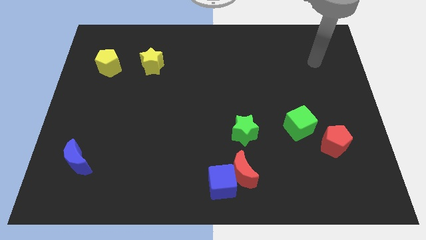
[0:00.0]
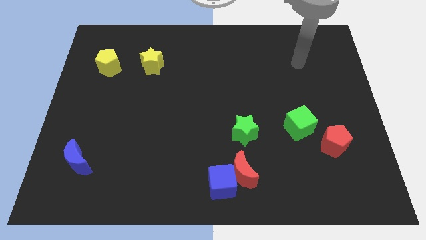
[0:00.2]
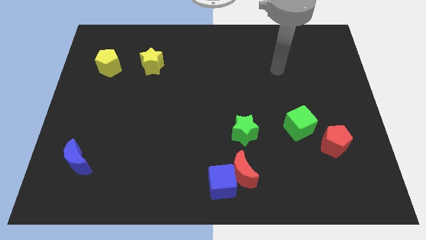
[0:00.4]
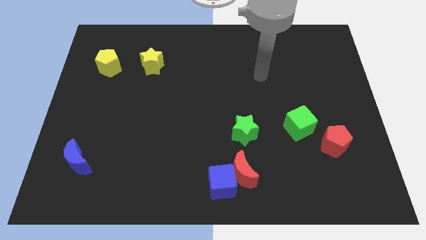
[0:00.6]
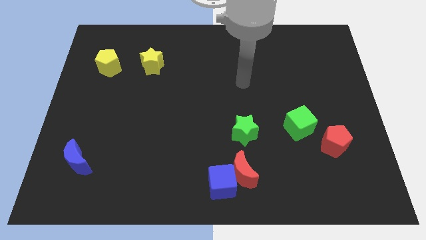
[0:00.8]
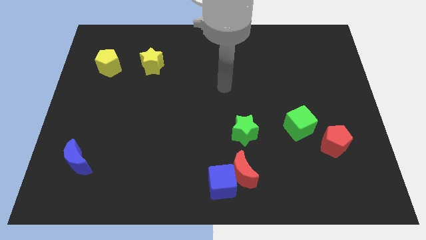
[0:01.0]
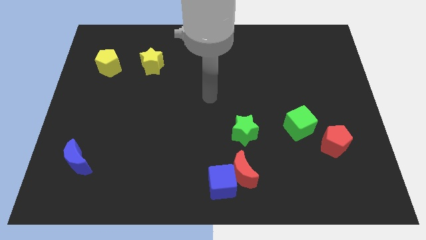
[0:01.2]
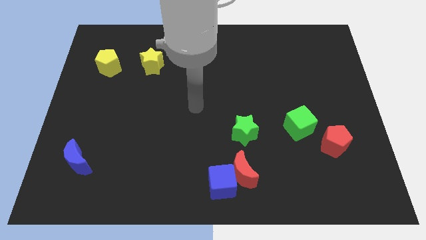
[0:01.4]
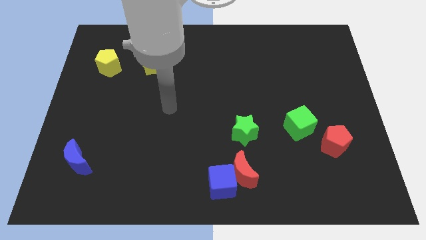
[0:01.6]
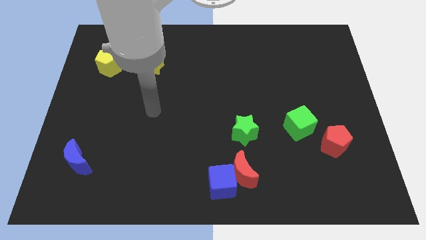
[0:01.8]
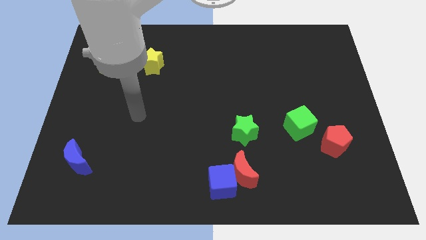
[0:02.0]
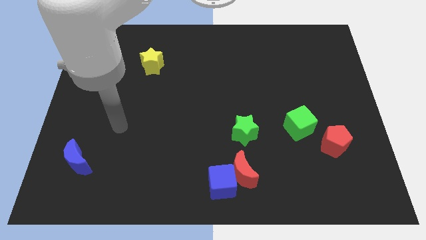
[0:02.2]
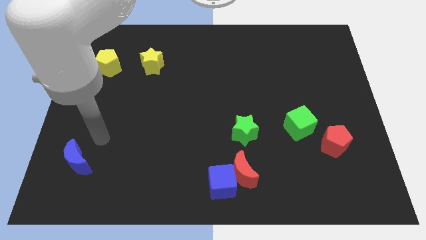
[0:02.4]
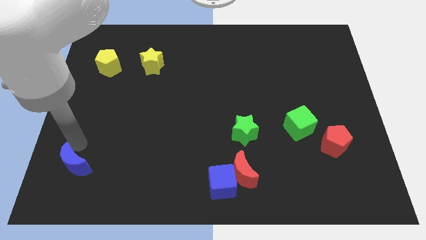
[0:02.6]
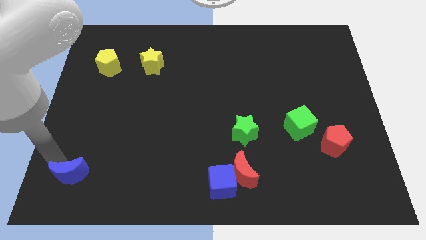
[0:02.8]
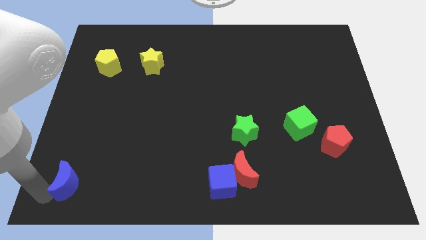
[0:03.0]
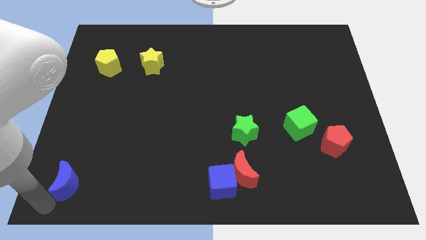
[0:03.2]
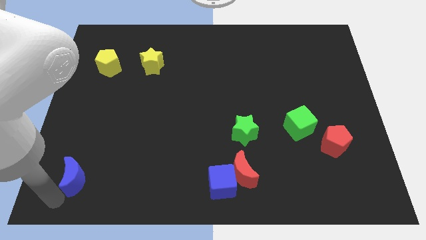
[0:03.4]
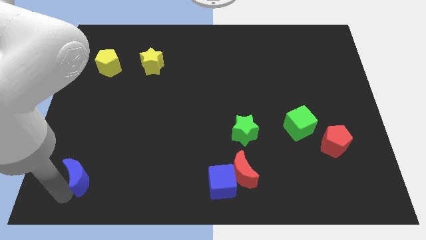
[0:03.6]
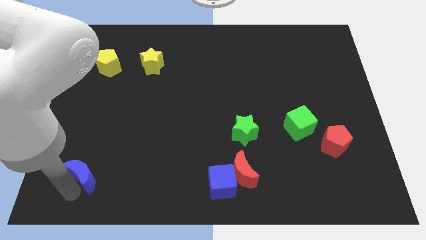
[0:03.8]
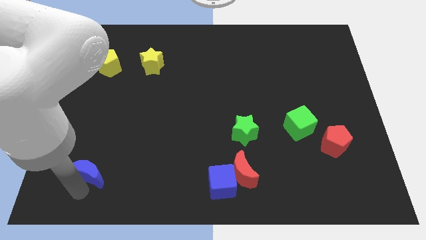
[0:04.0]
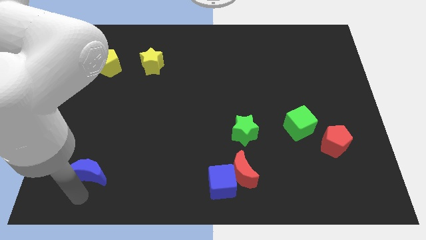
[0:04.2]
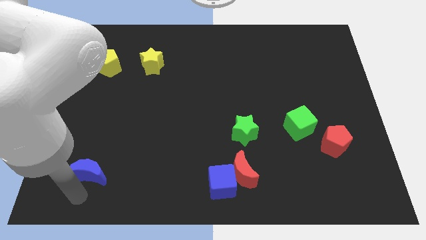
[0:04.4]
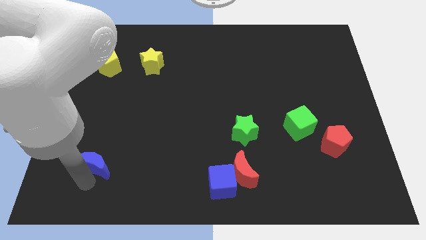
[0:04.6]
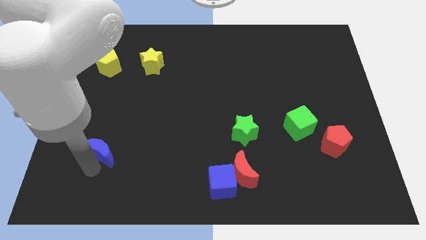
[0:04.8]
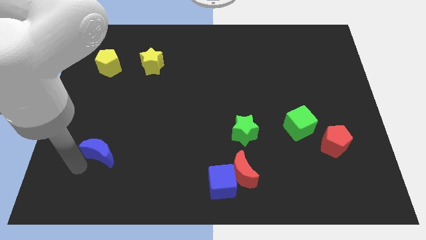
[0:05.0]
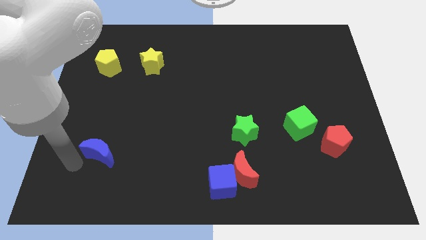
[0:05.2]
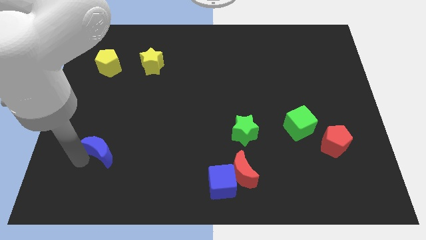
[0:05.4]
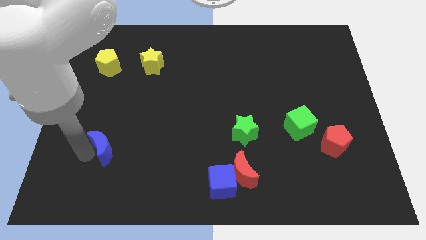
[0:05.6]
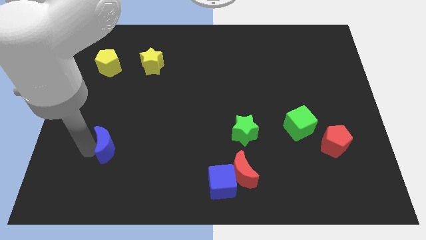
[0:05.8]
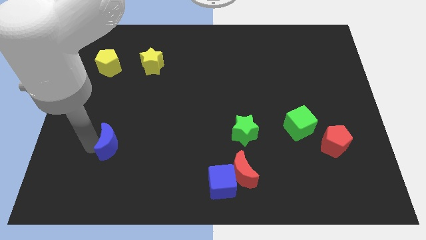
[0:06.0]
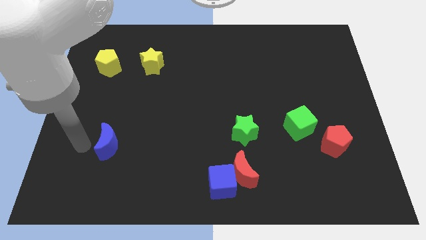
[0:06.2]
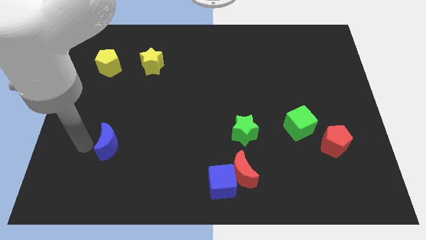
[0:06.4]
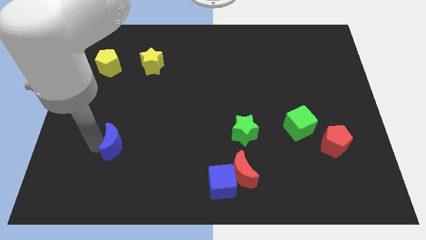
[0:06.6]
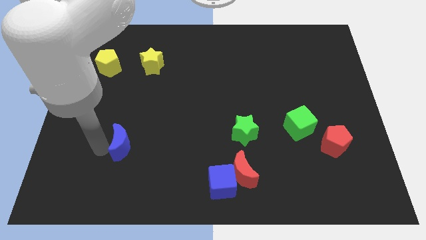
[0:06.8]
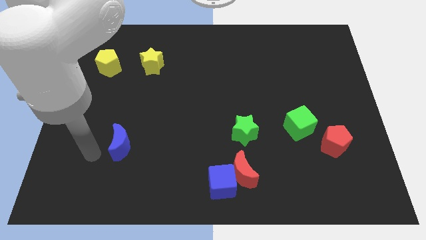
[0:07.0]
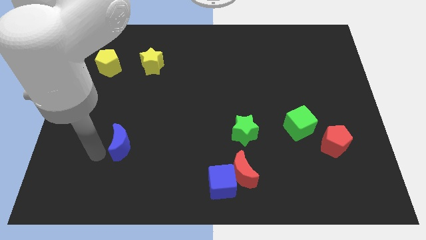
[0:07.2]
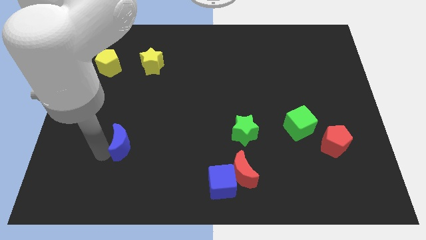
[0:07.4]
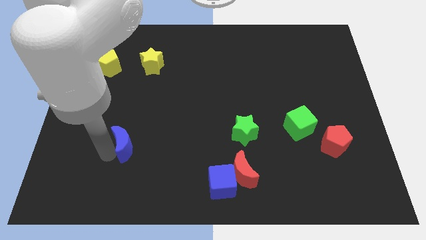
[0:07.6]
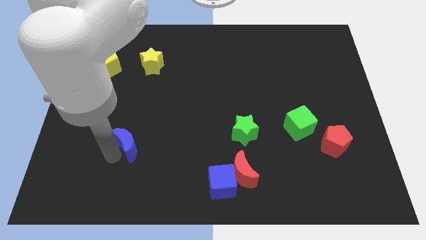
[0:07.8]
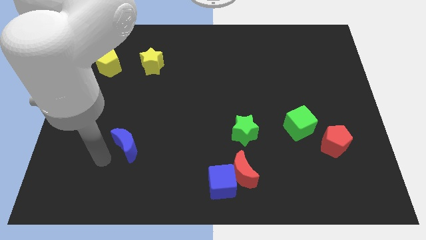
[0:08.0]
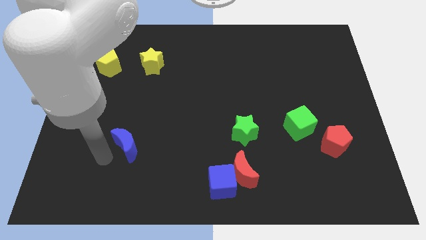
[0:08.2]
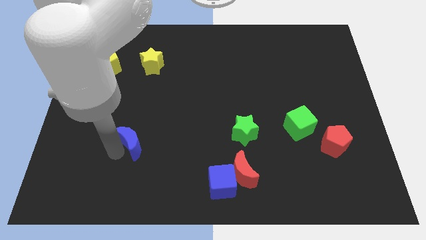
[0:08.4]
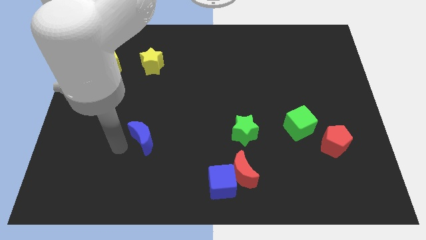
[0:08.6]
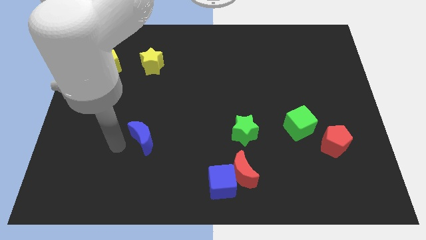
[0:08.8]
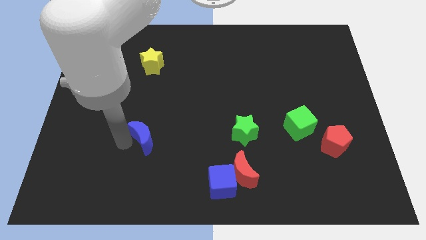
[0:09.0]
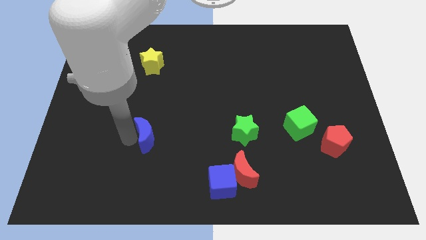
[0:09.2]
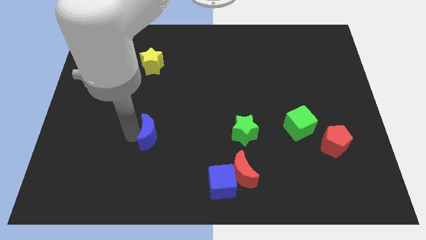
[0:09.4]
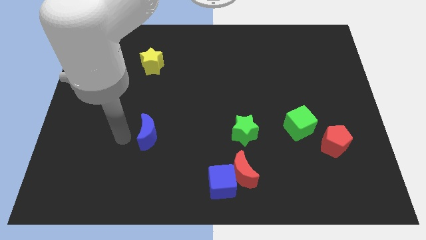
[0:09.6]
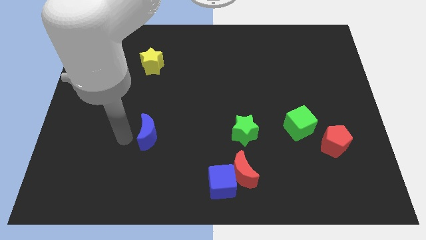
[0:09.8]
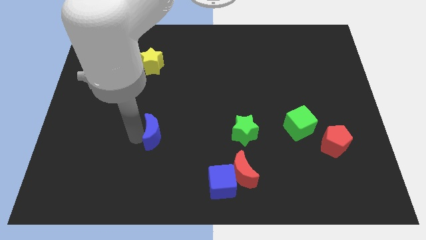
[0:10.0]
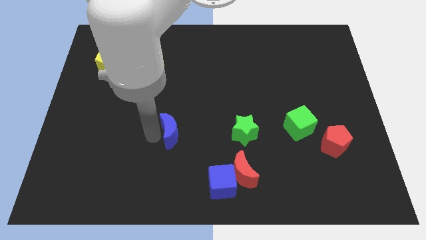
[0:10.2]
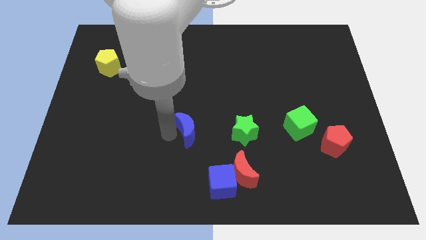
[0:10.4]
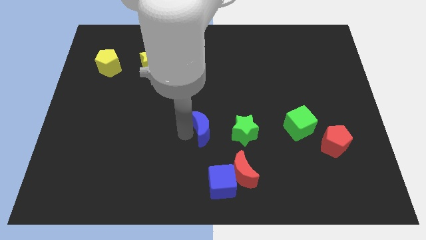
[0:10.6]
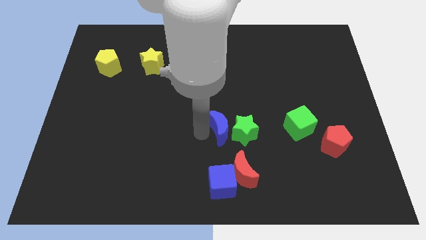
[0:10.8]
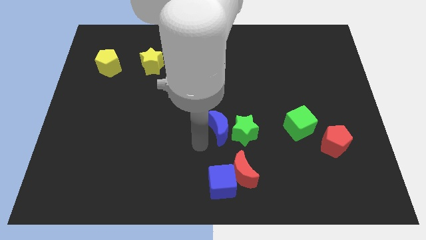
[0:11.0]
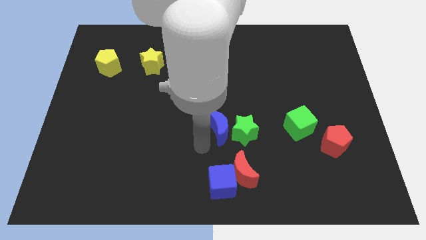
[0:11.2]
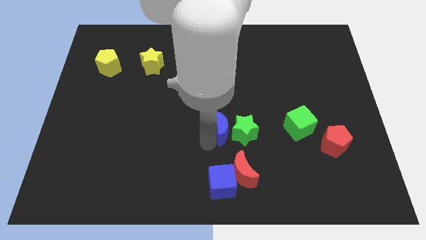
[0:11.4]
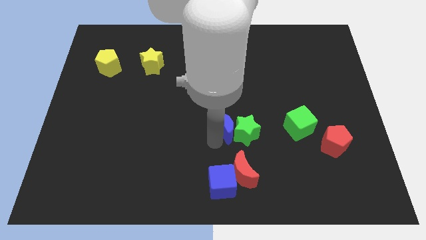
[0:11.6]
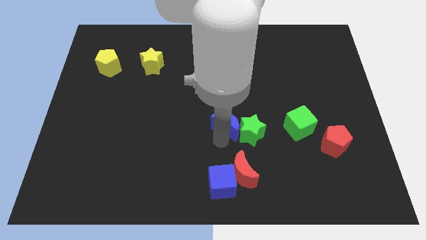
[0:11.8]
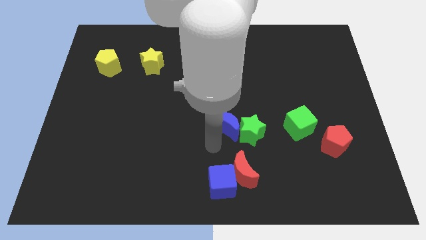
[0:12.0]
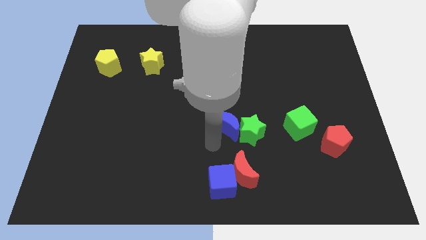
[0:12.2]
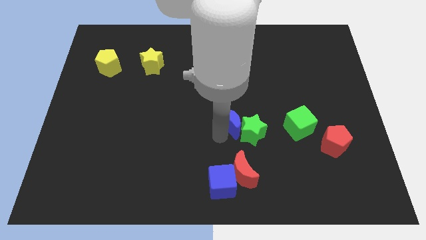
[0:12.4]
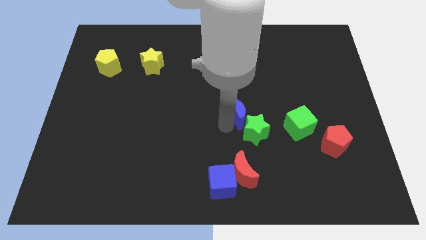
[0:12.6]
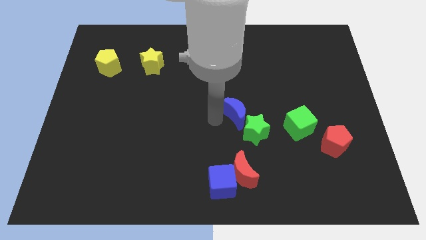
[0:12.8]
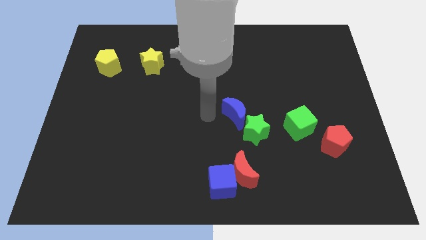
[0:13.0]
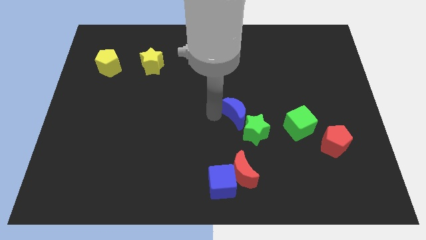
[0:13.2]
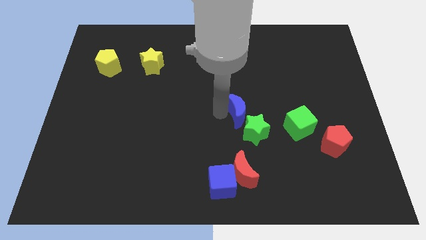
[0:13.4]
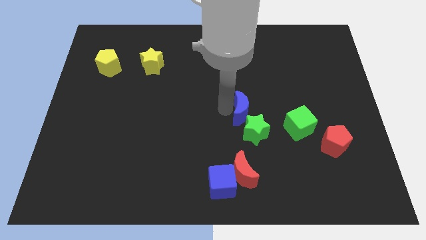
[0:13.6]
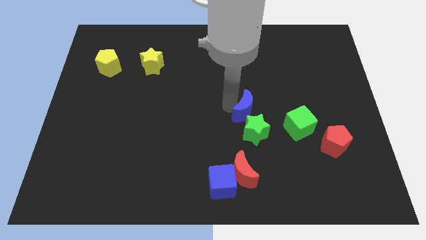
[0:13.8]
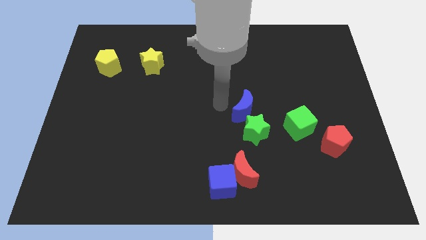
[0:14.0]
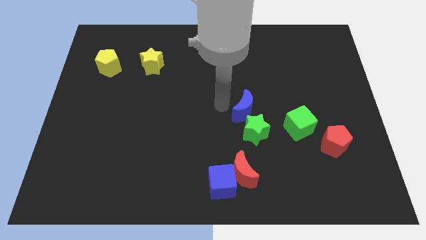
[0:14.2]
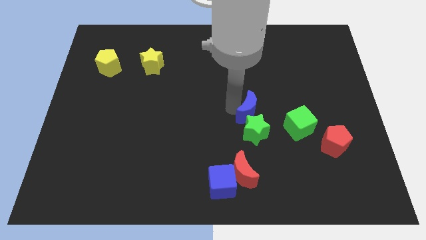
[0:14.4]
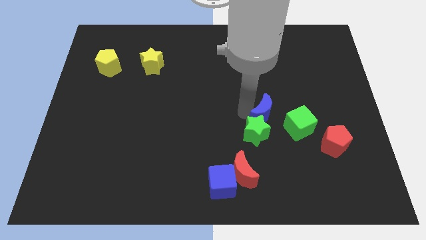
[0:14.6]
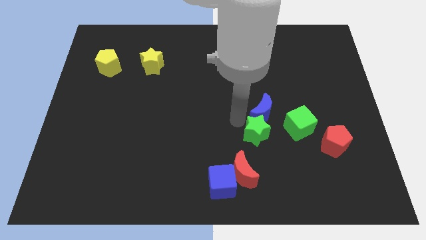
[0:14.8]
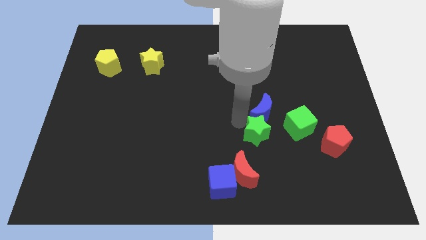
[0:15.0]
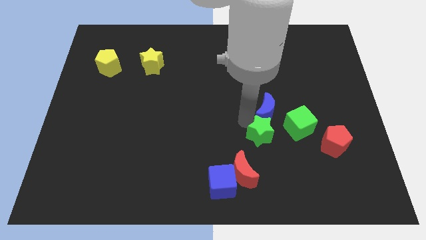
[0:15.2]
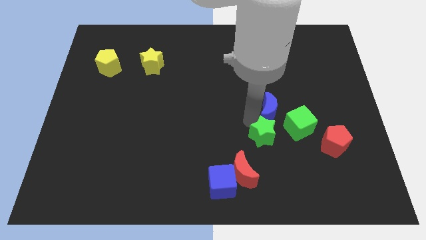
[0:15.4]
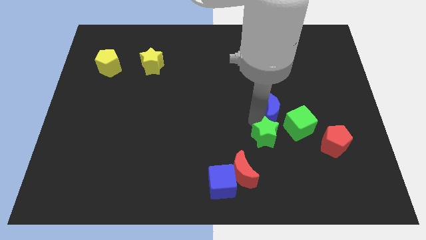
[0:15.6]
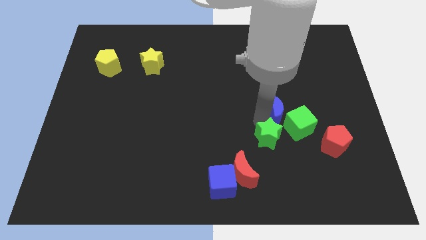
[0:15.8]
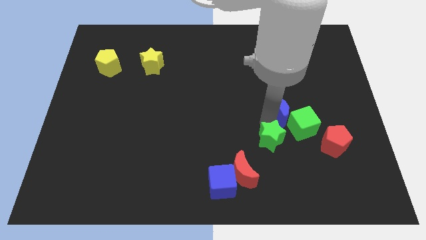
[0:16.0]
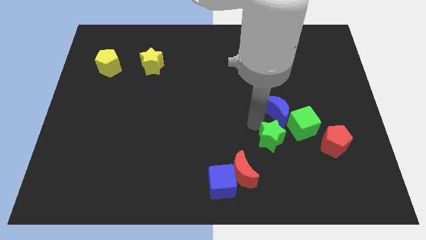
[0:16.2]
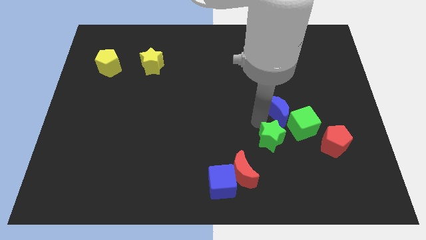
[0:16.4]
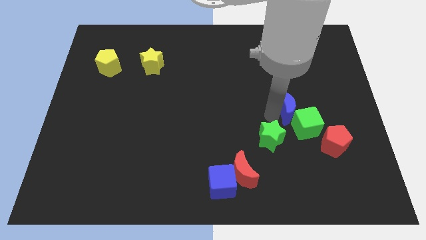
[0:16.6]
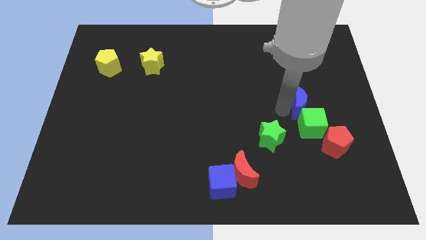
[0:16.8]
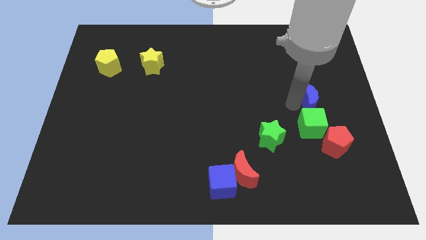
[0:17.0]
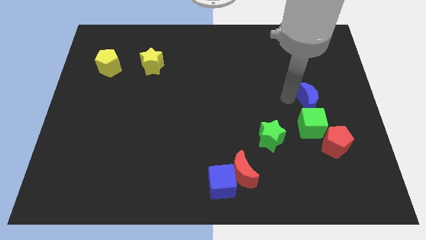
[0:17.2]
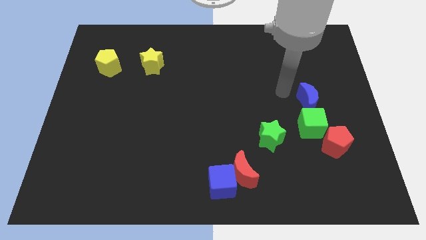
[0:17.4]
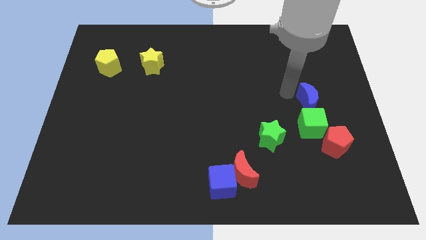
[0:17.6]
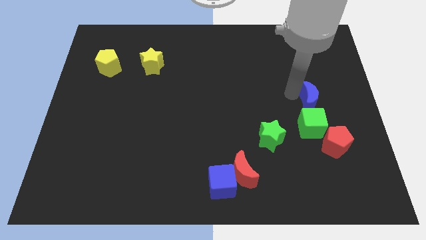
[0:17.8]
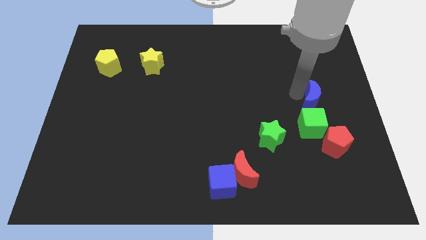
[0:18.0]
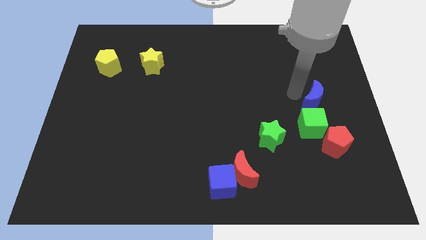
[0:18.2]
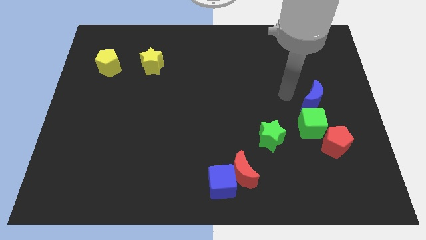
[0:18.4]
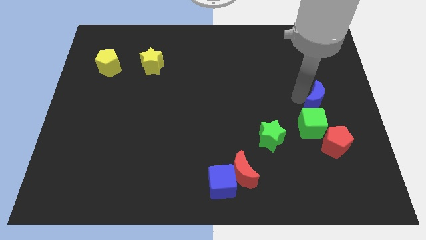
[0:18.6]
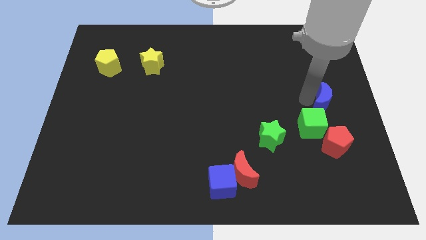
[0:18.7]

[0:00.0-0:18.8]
put the blue moon to the right side
